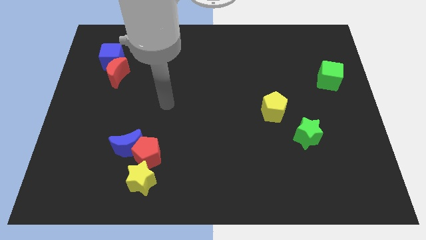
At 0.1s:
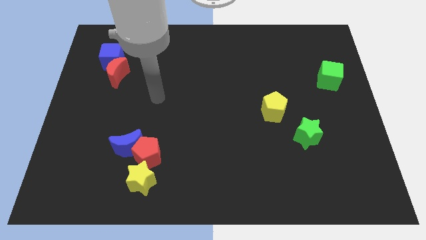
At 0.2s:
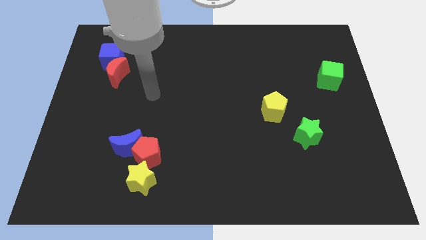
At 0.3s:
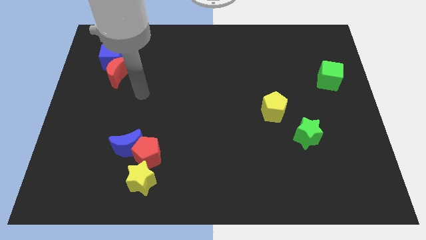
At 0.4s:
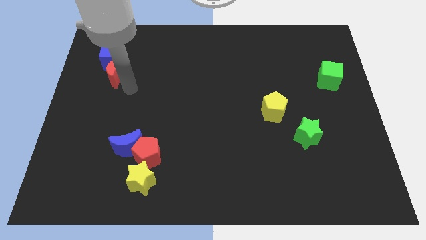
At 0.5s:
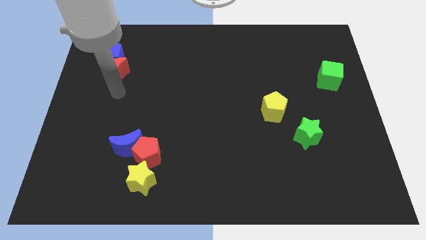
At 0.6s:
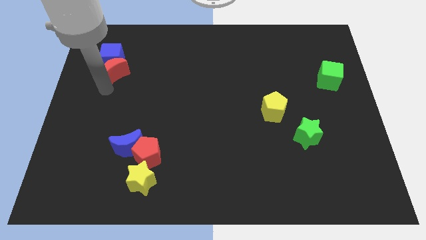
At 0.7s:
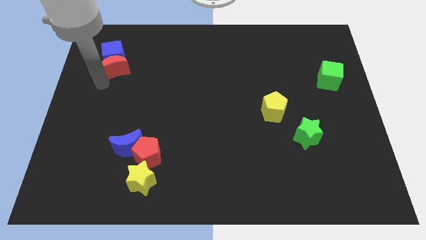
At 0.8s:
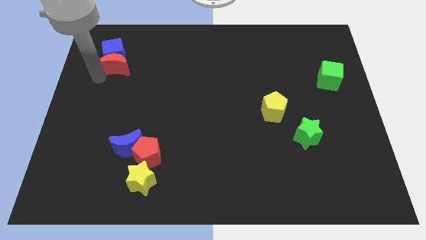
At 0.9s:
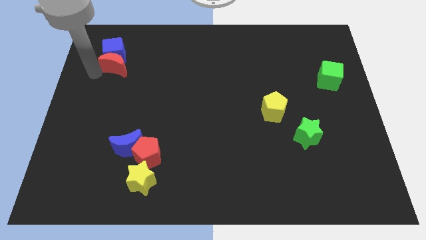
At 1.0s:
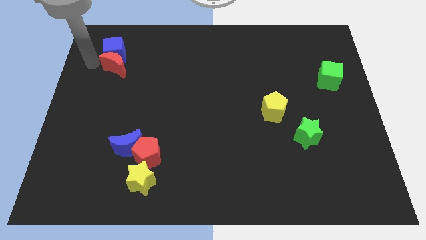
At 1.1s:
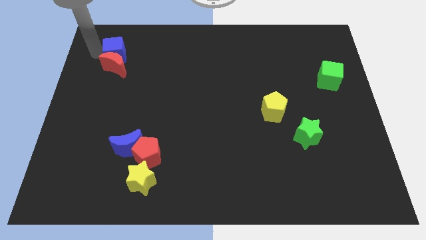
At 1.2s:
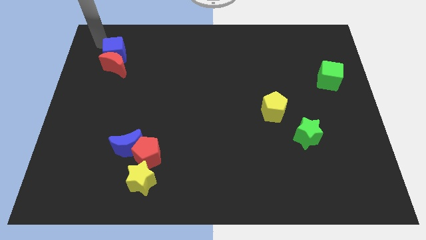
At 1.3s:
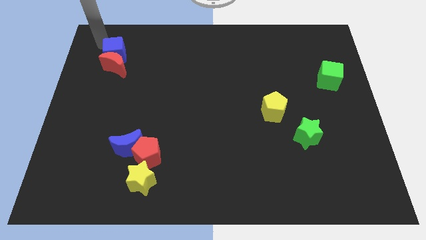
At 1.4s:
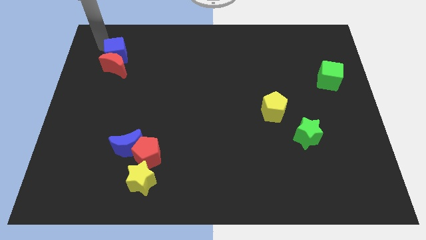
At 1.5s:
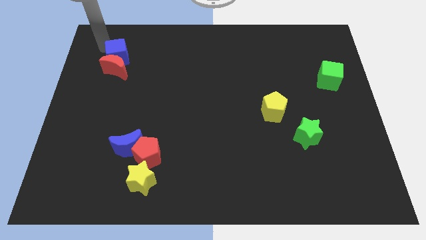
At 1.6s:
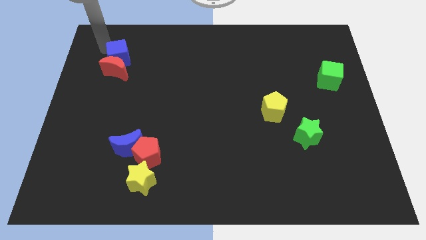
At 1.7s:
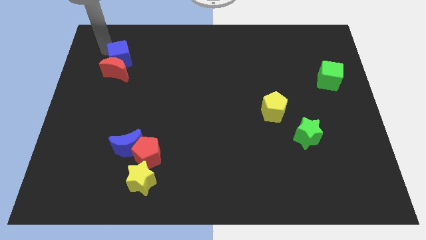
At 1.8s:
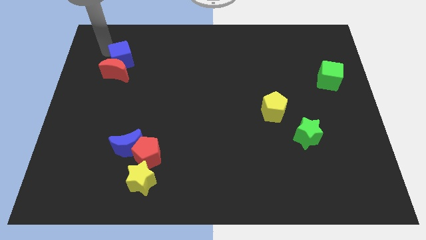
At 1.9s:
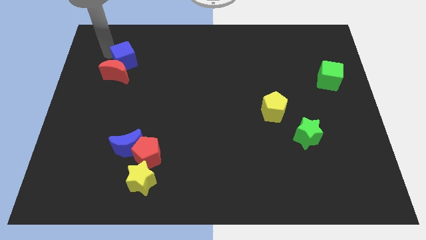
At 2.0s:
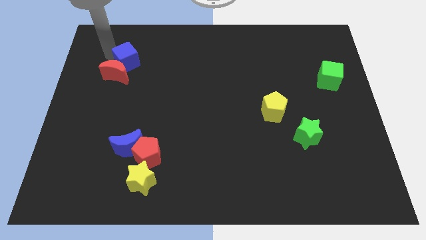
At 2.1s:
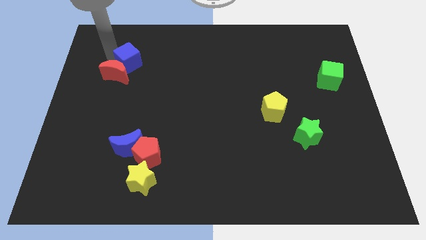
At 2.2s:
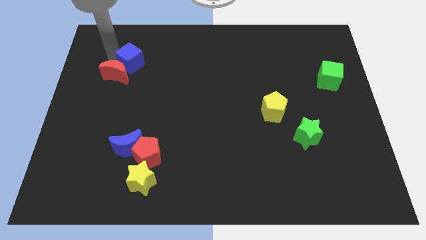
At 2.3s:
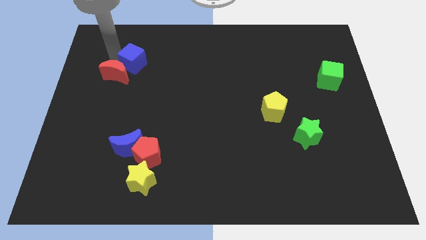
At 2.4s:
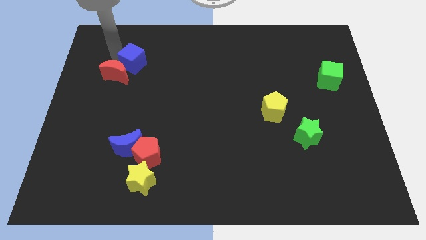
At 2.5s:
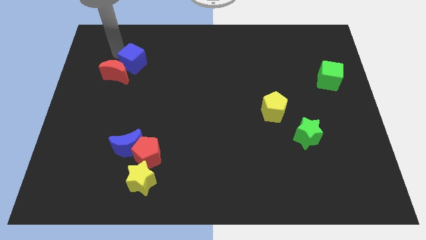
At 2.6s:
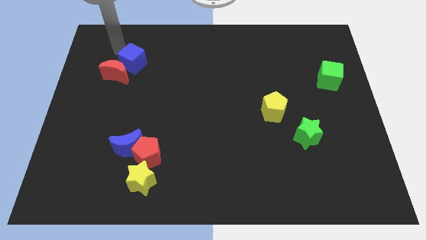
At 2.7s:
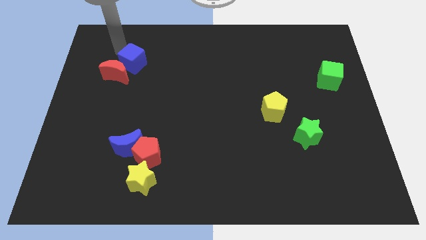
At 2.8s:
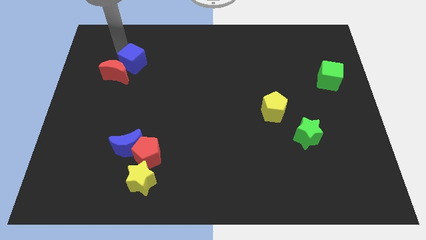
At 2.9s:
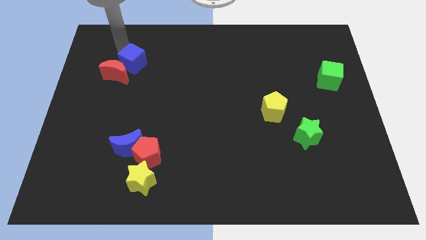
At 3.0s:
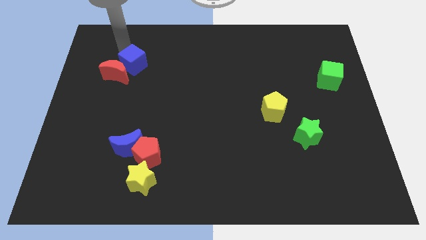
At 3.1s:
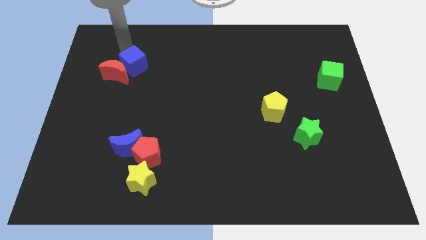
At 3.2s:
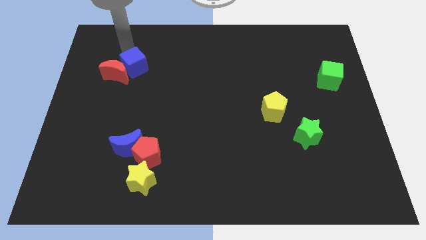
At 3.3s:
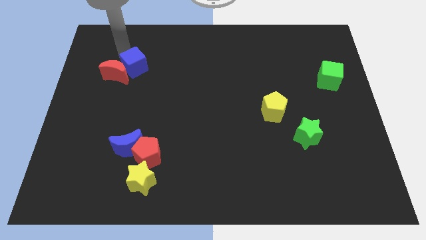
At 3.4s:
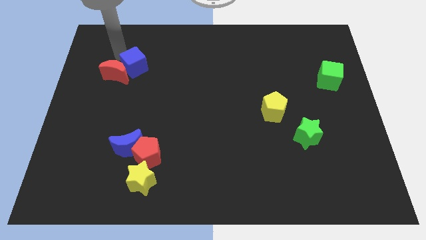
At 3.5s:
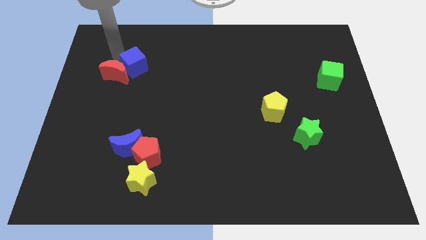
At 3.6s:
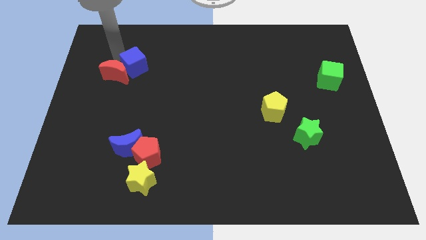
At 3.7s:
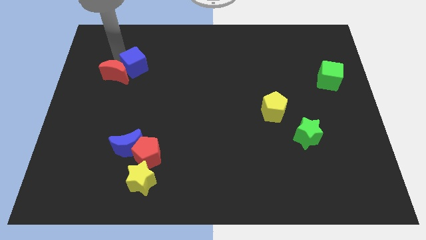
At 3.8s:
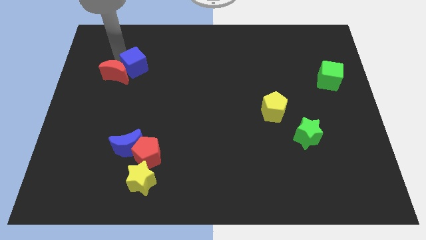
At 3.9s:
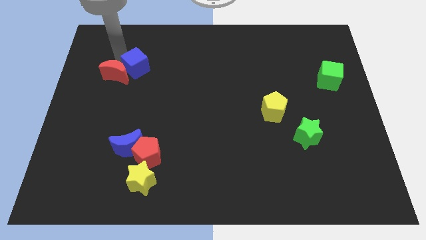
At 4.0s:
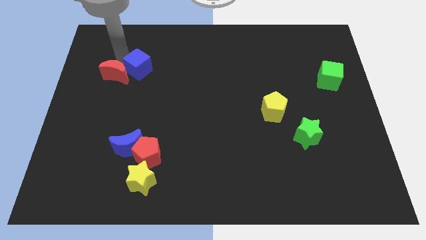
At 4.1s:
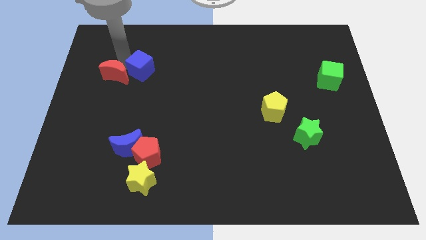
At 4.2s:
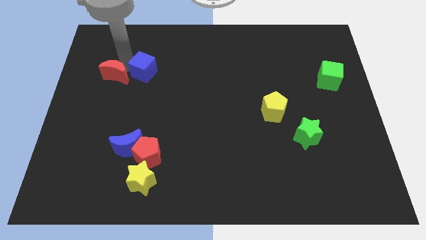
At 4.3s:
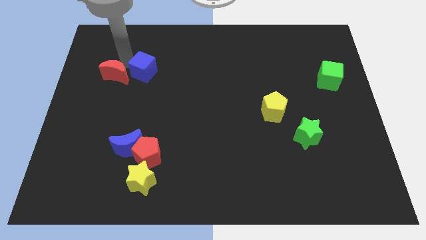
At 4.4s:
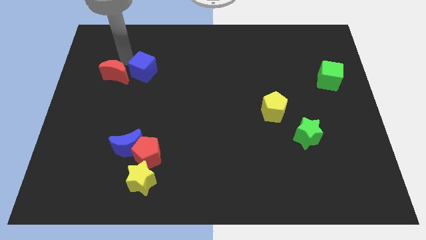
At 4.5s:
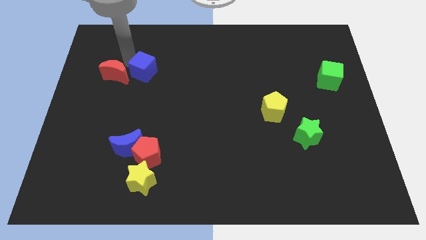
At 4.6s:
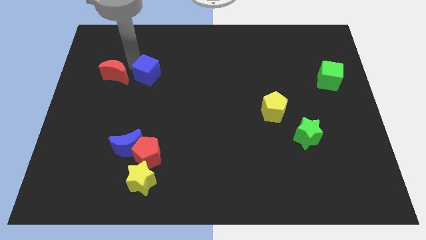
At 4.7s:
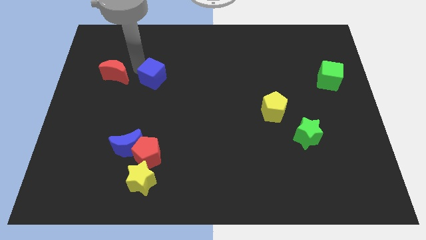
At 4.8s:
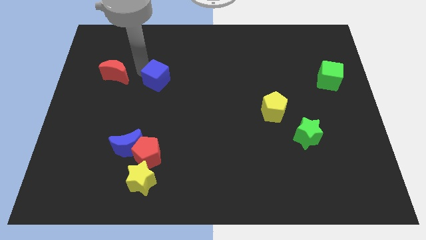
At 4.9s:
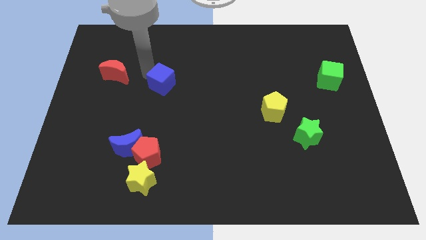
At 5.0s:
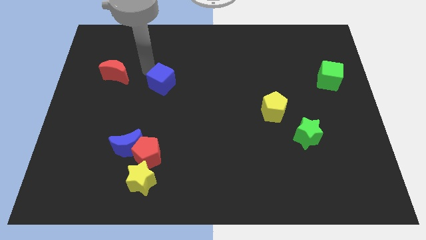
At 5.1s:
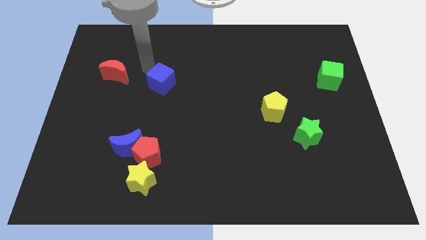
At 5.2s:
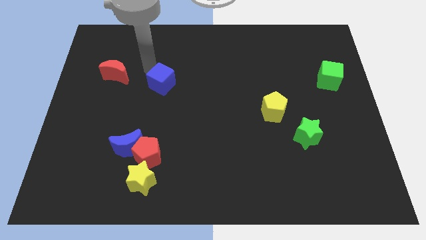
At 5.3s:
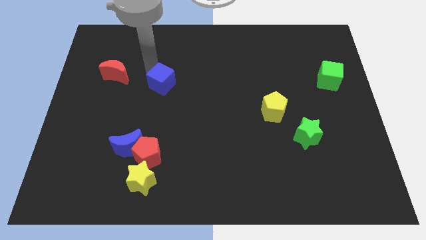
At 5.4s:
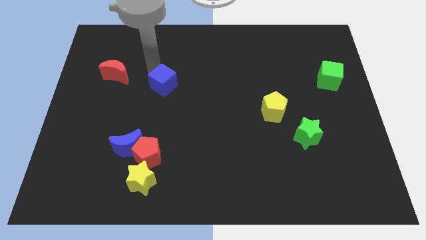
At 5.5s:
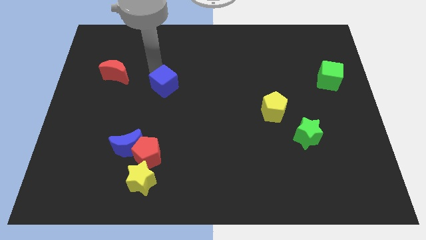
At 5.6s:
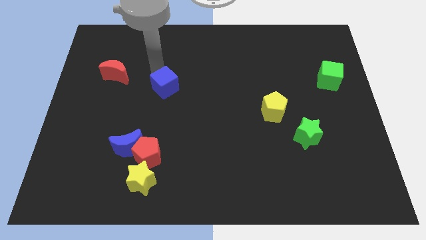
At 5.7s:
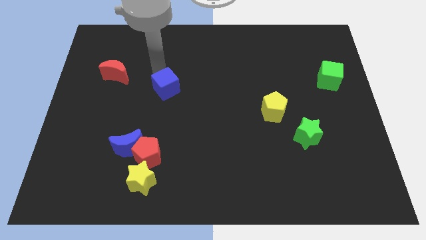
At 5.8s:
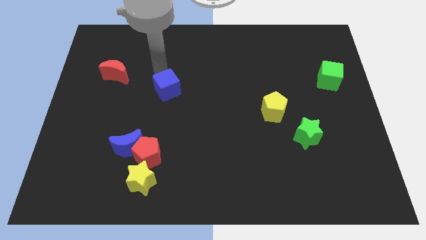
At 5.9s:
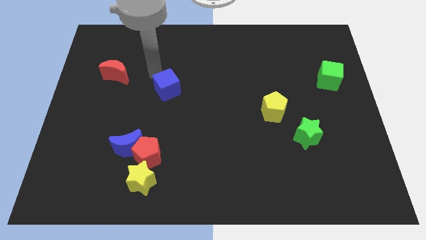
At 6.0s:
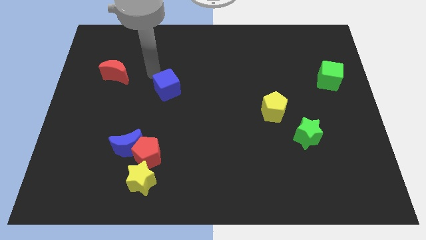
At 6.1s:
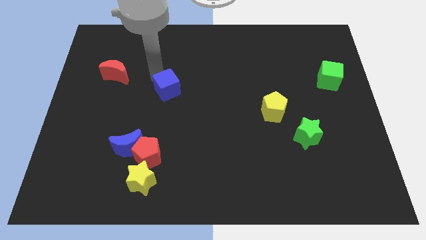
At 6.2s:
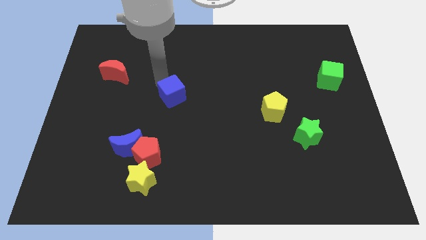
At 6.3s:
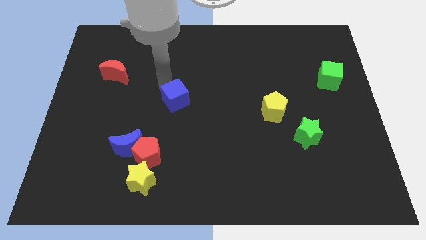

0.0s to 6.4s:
slide the blue cube down and to the right diagonally

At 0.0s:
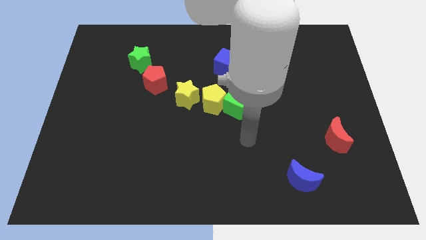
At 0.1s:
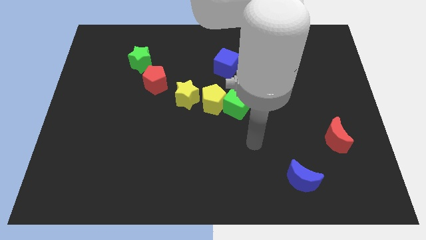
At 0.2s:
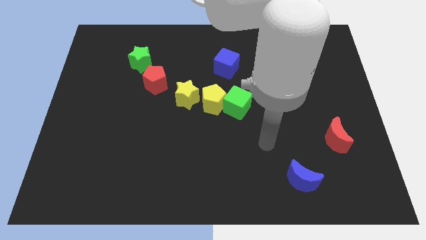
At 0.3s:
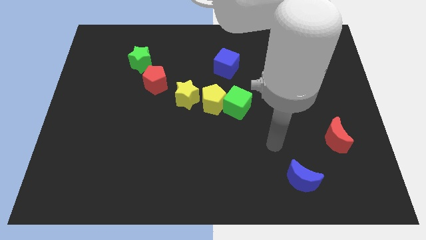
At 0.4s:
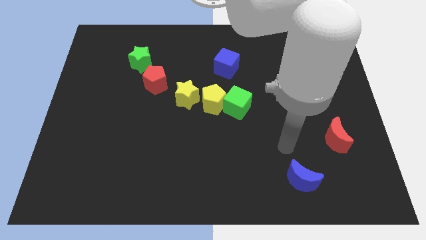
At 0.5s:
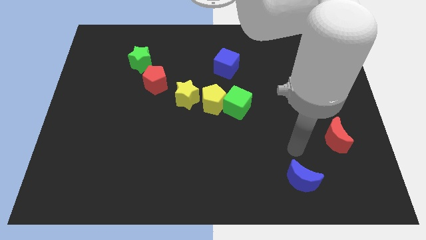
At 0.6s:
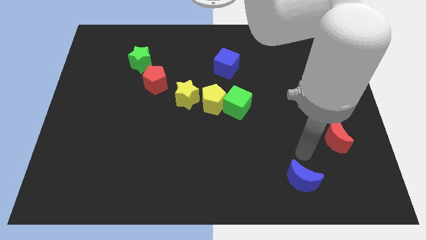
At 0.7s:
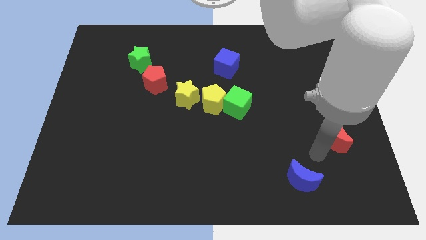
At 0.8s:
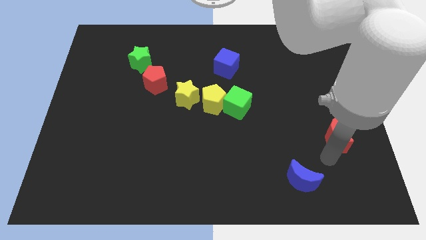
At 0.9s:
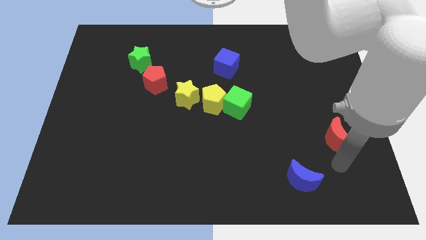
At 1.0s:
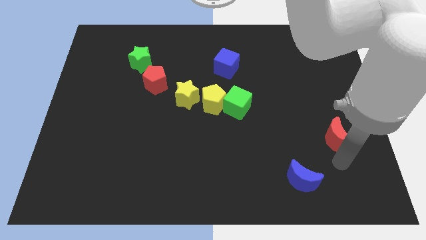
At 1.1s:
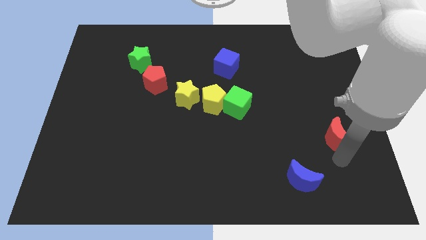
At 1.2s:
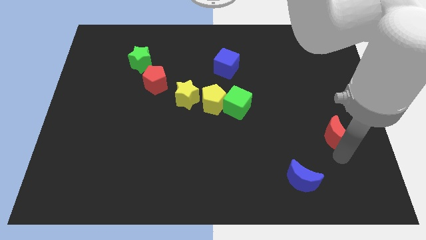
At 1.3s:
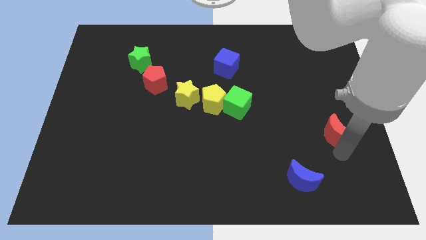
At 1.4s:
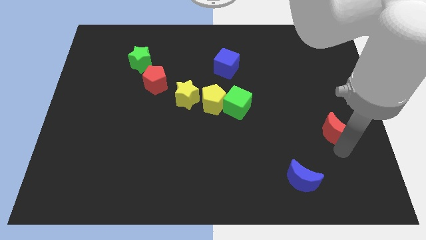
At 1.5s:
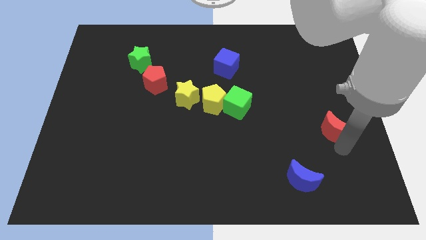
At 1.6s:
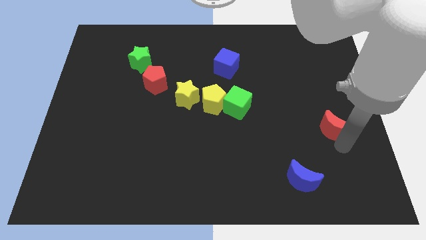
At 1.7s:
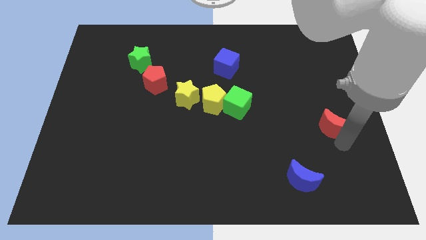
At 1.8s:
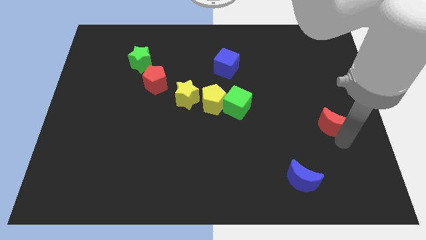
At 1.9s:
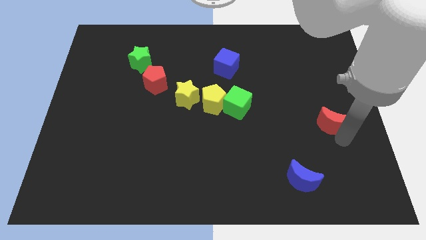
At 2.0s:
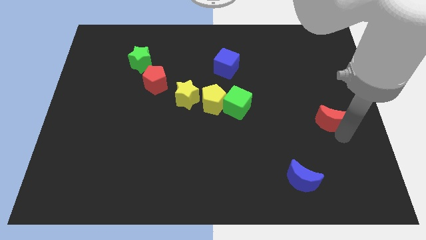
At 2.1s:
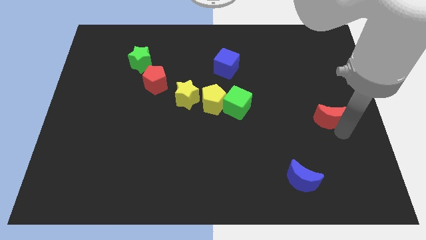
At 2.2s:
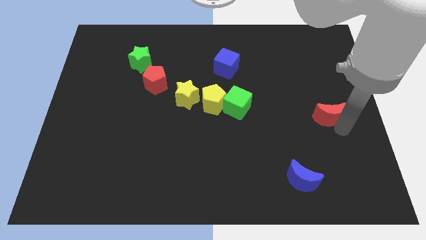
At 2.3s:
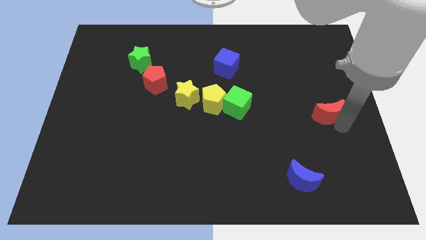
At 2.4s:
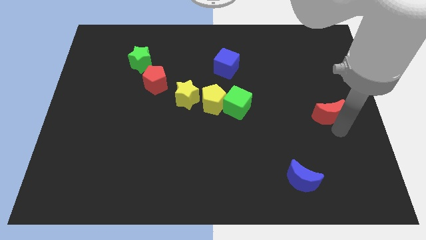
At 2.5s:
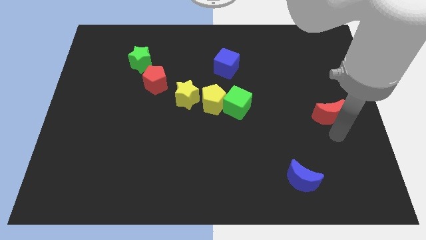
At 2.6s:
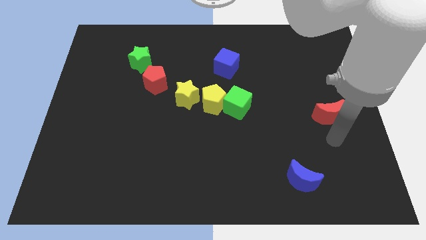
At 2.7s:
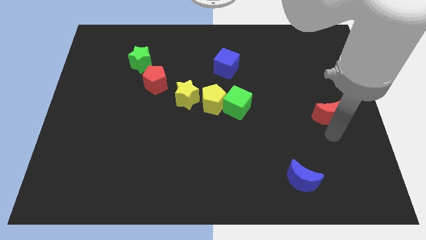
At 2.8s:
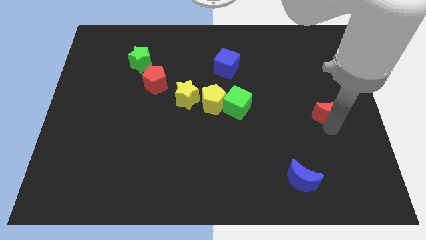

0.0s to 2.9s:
push the red moon a little bit upwards
